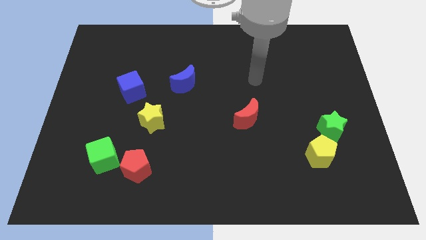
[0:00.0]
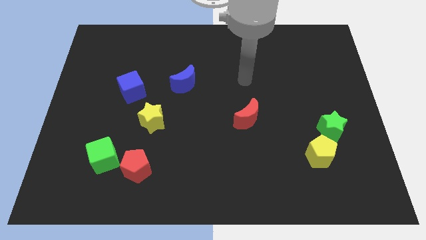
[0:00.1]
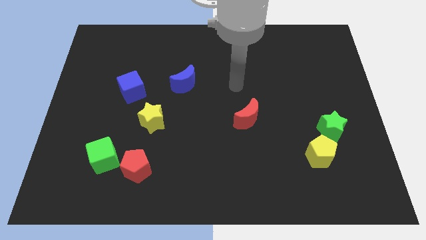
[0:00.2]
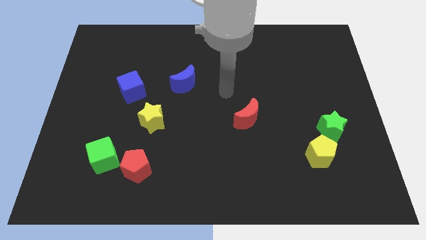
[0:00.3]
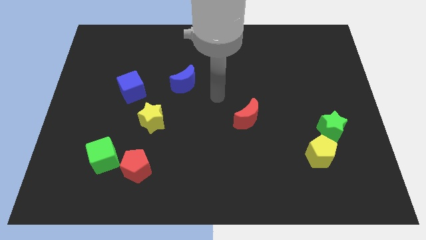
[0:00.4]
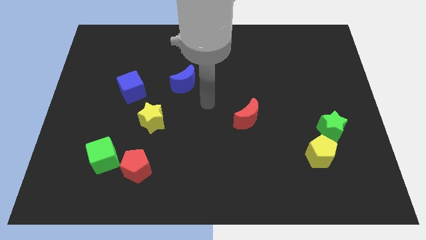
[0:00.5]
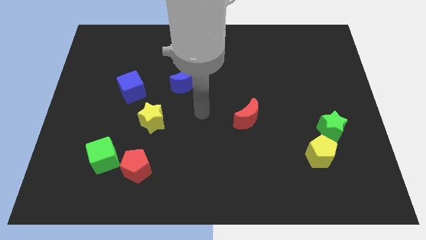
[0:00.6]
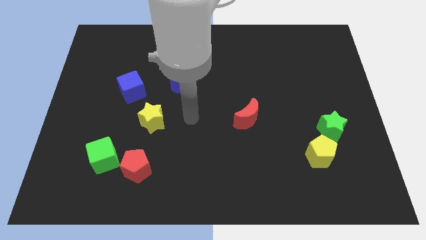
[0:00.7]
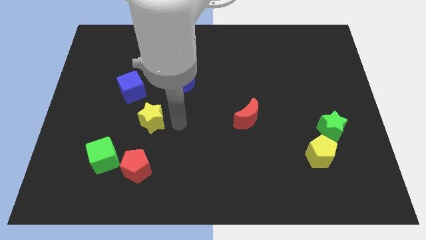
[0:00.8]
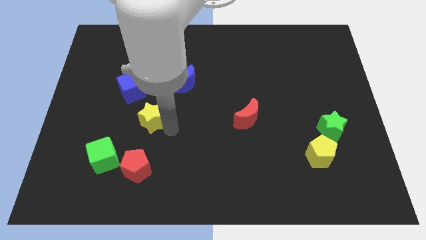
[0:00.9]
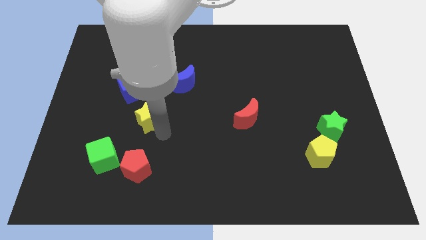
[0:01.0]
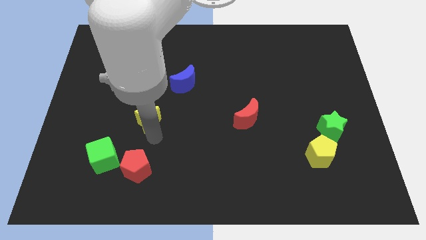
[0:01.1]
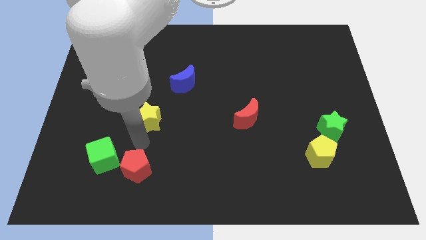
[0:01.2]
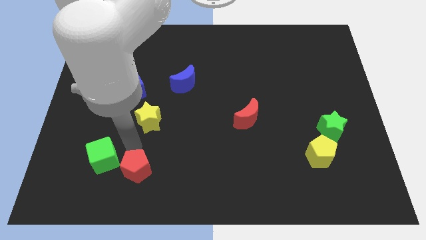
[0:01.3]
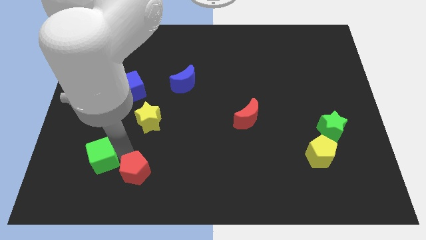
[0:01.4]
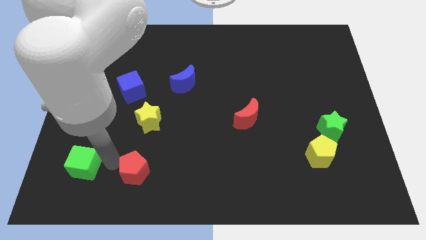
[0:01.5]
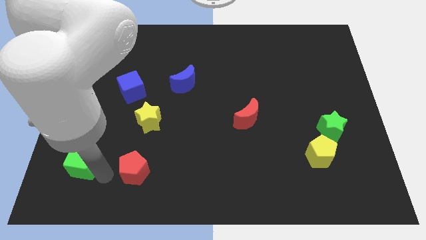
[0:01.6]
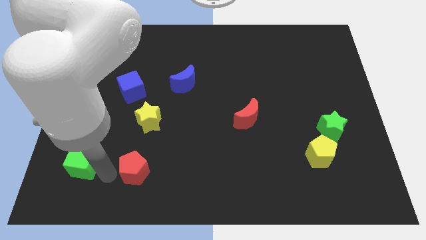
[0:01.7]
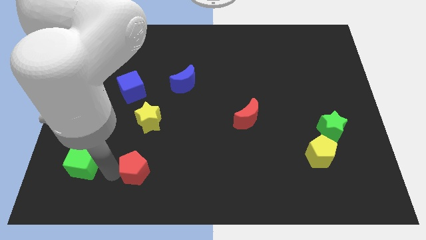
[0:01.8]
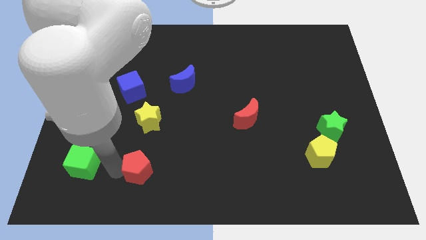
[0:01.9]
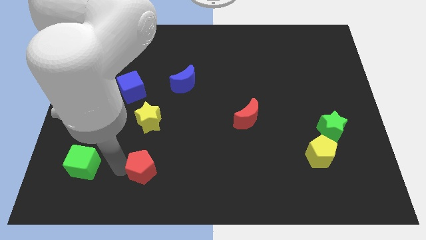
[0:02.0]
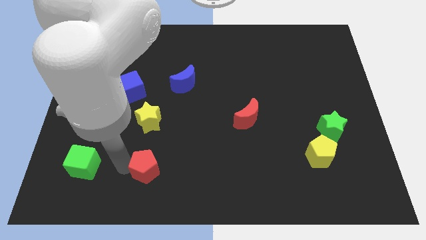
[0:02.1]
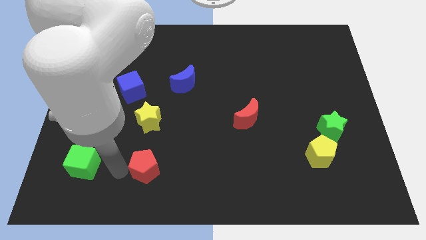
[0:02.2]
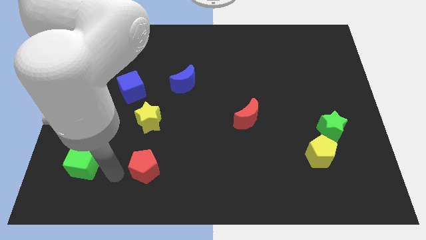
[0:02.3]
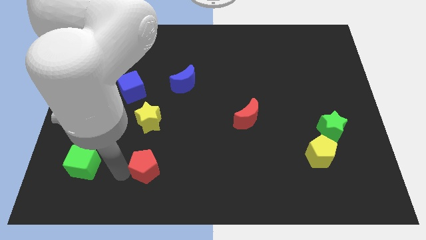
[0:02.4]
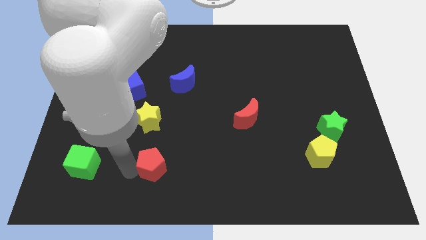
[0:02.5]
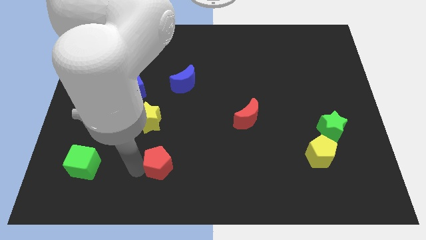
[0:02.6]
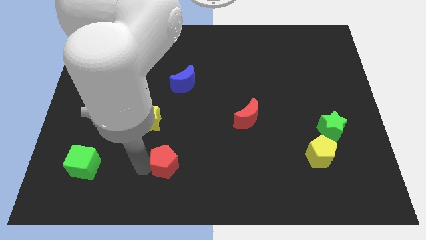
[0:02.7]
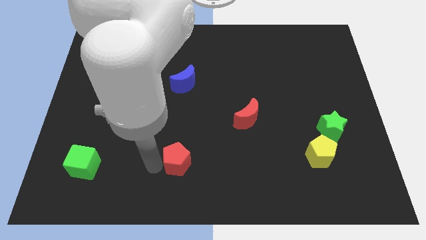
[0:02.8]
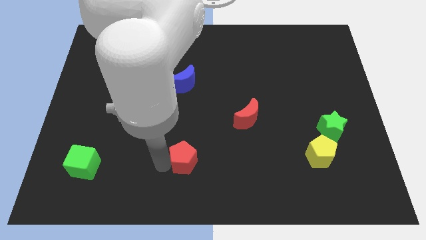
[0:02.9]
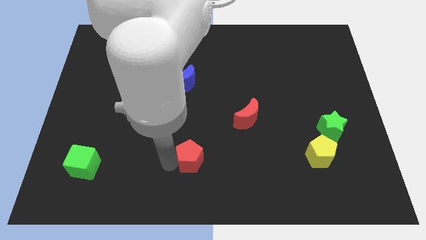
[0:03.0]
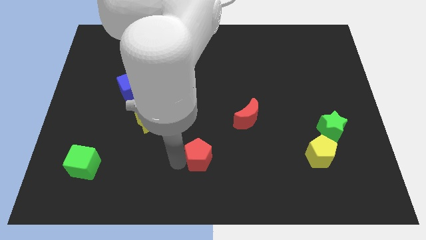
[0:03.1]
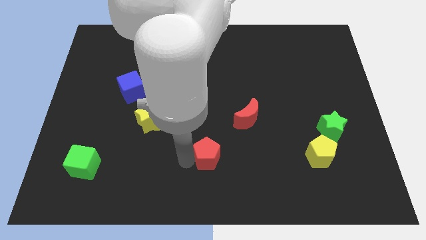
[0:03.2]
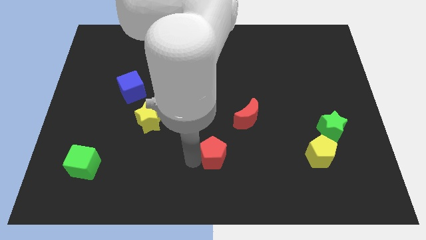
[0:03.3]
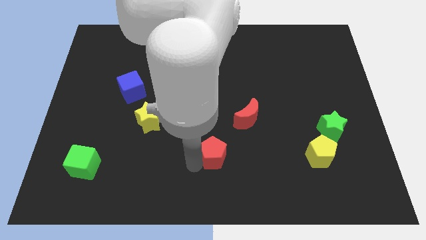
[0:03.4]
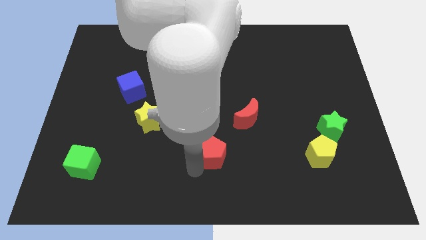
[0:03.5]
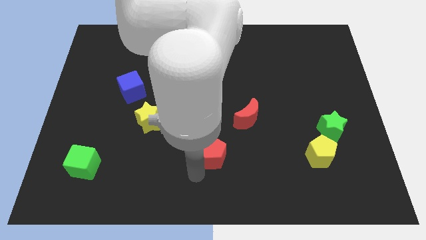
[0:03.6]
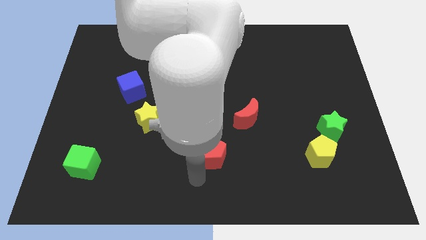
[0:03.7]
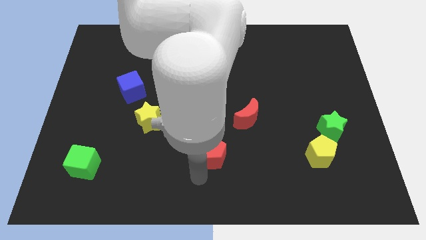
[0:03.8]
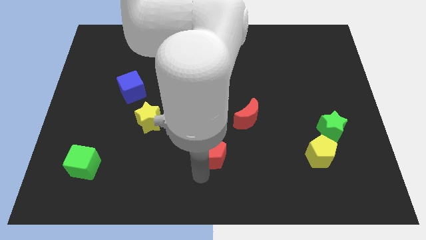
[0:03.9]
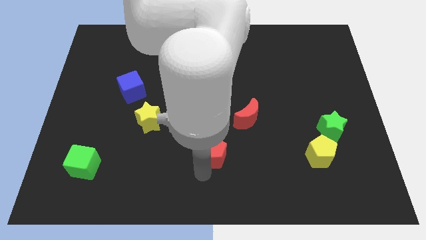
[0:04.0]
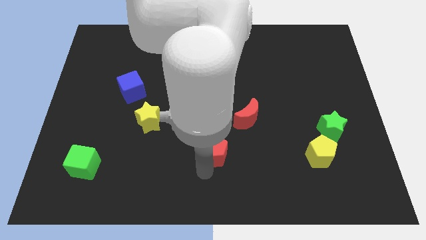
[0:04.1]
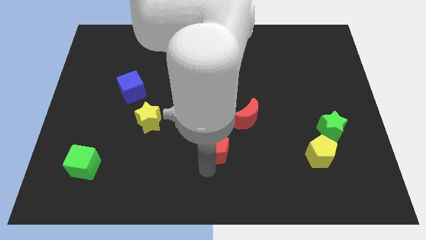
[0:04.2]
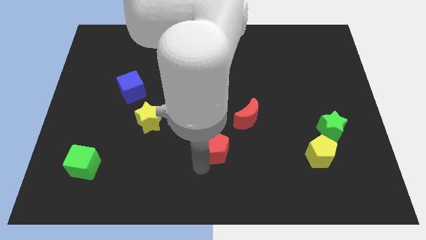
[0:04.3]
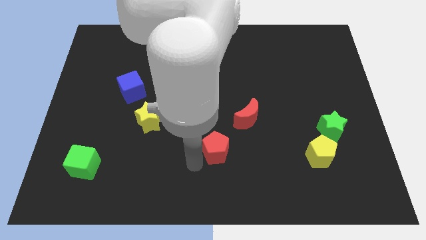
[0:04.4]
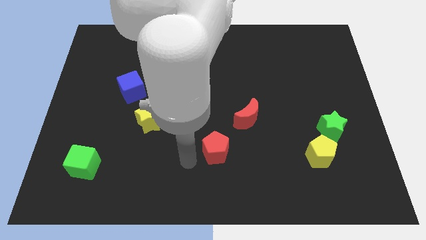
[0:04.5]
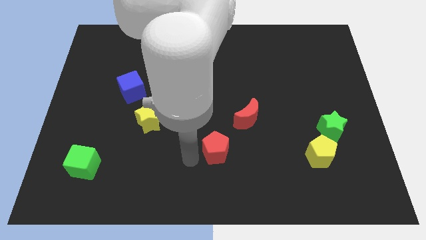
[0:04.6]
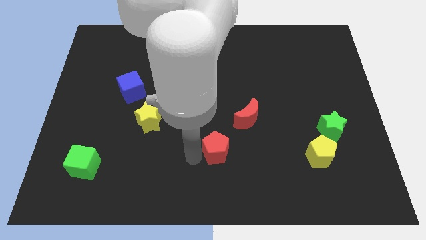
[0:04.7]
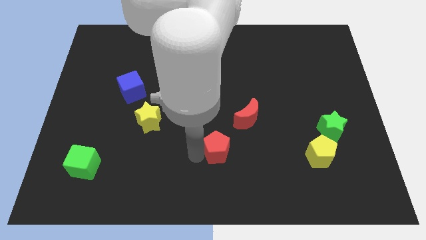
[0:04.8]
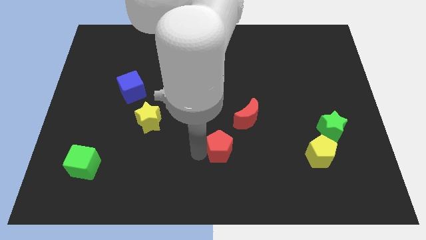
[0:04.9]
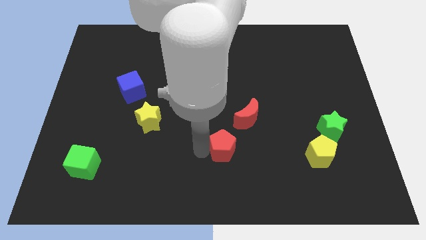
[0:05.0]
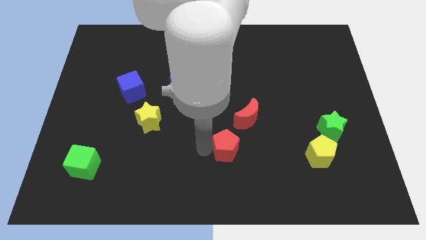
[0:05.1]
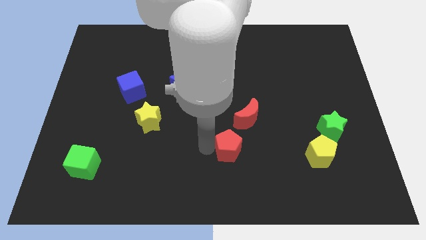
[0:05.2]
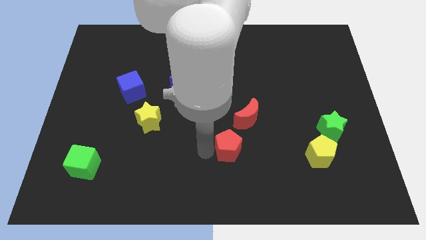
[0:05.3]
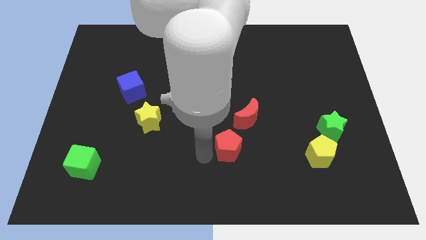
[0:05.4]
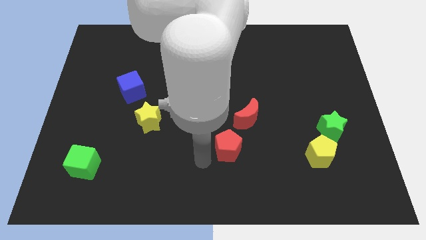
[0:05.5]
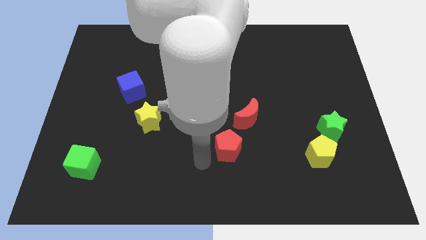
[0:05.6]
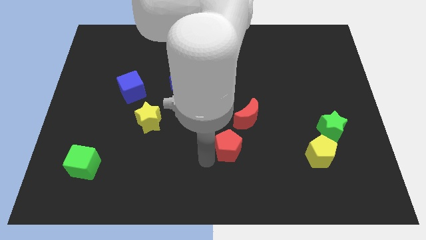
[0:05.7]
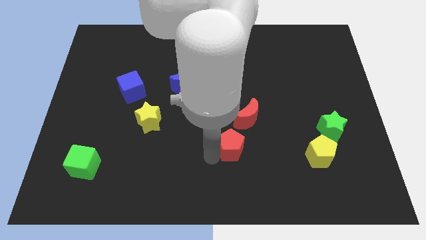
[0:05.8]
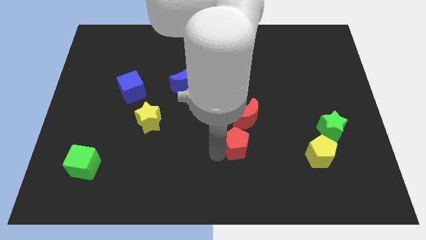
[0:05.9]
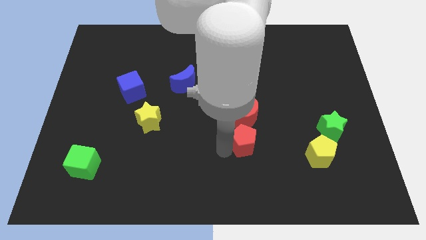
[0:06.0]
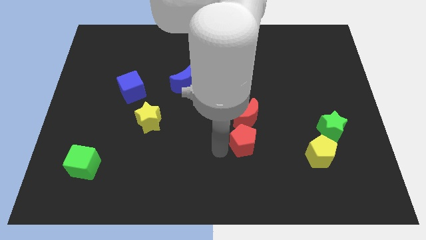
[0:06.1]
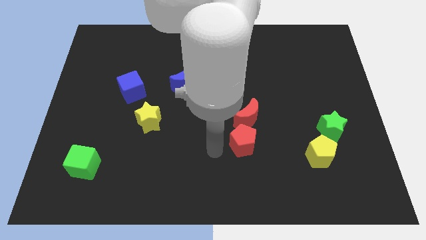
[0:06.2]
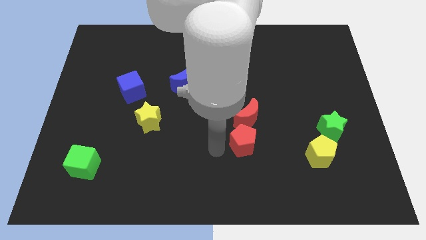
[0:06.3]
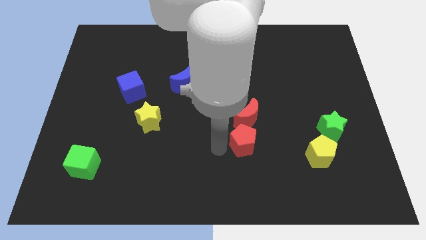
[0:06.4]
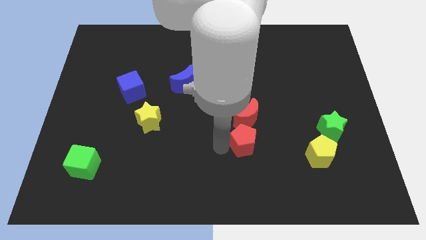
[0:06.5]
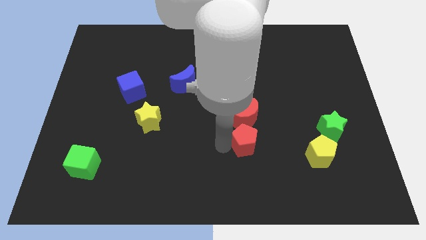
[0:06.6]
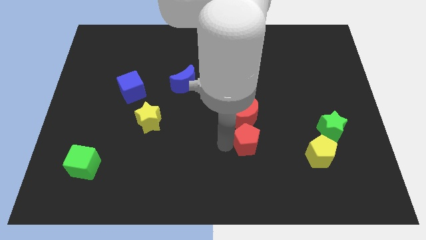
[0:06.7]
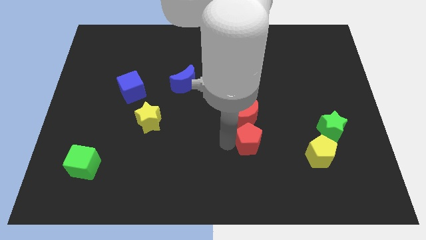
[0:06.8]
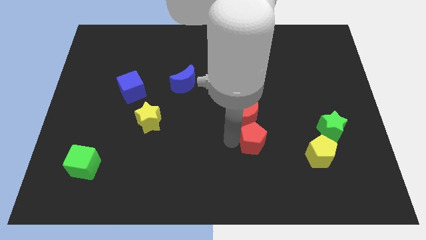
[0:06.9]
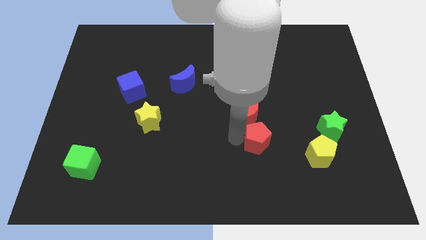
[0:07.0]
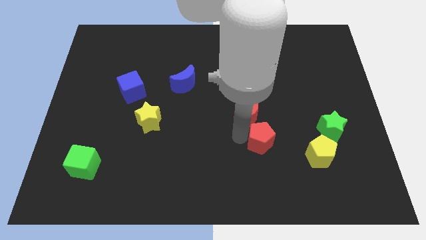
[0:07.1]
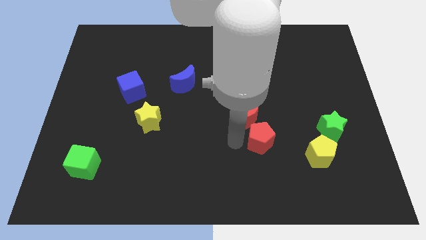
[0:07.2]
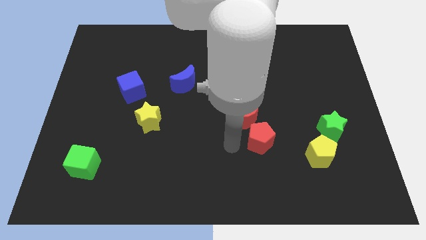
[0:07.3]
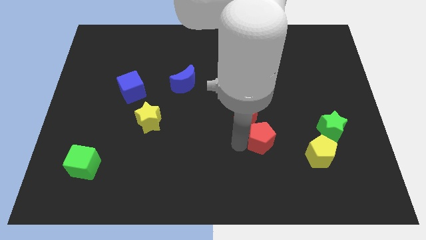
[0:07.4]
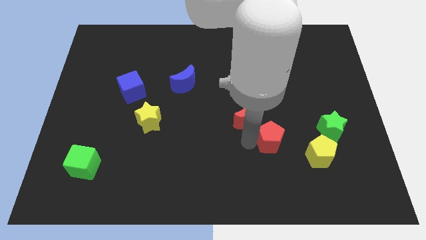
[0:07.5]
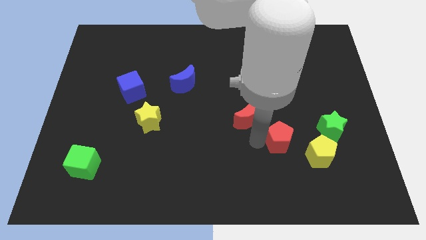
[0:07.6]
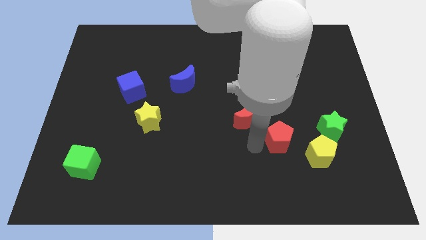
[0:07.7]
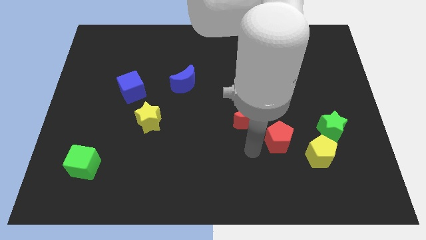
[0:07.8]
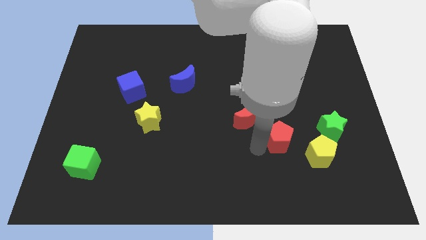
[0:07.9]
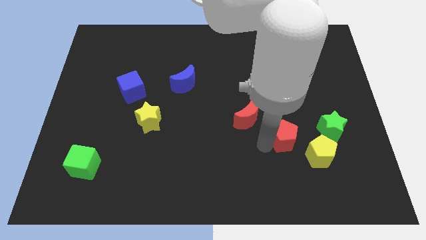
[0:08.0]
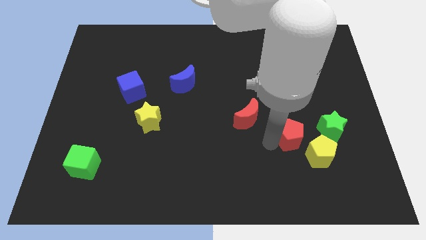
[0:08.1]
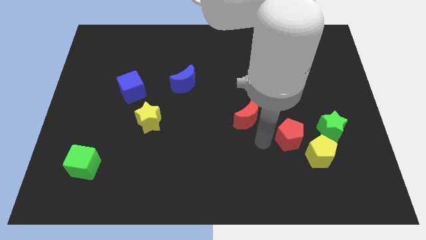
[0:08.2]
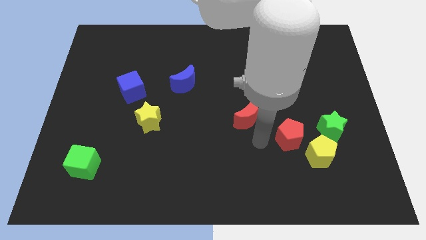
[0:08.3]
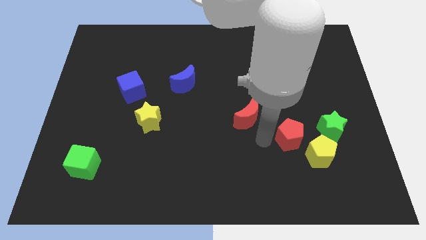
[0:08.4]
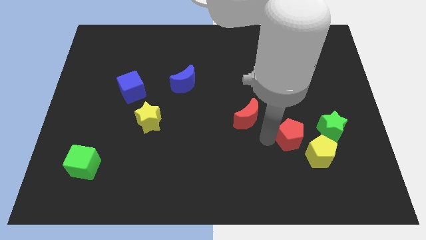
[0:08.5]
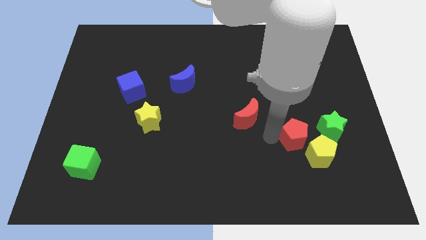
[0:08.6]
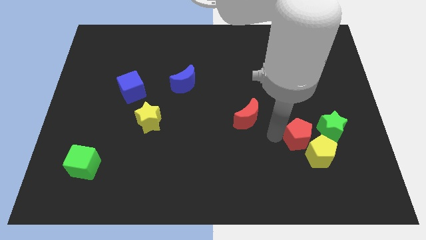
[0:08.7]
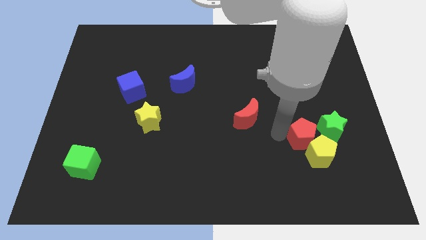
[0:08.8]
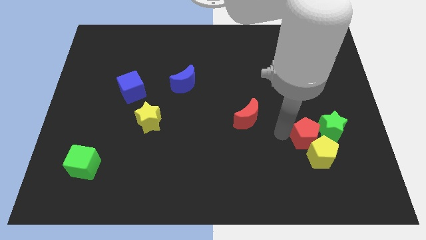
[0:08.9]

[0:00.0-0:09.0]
put the red pentagon next to the green star
